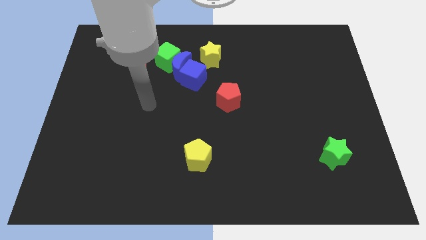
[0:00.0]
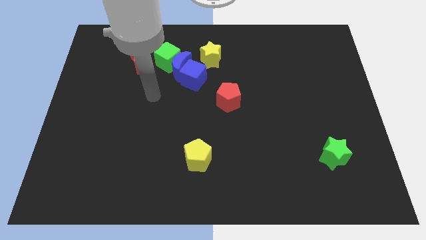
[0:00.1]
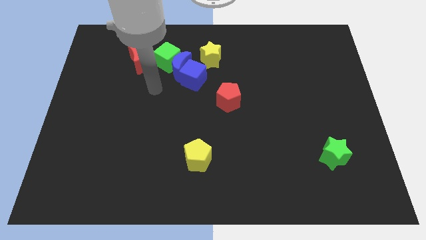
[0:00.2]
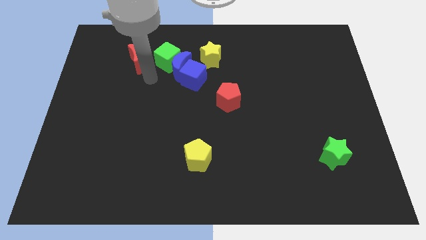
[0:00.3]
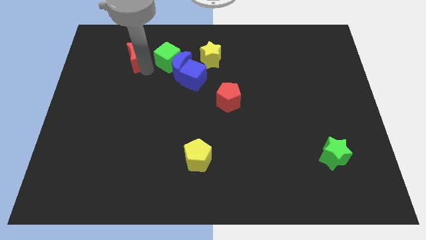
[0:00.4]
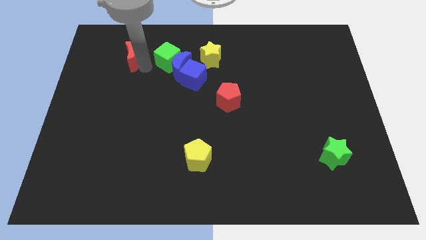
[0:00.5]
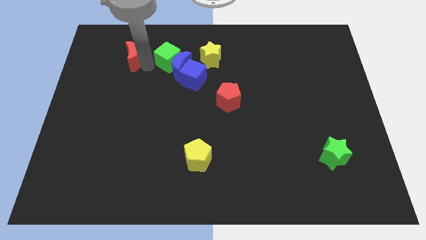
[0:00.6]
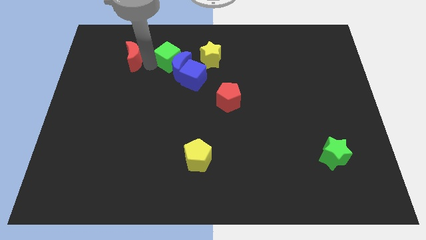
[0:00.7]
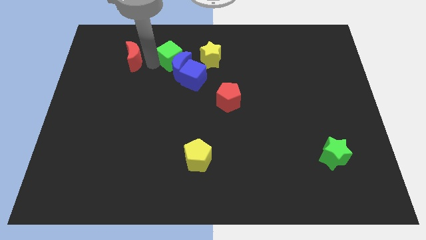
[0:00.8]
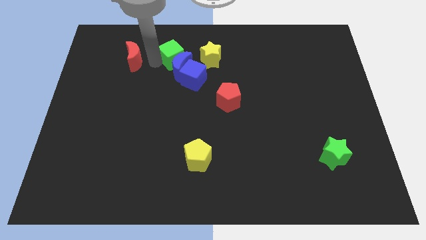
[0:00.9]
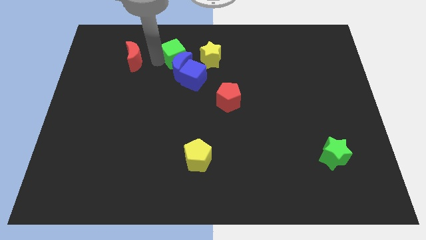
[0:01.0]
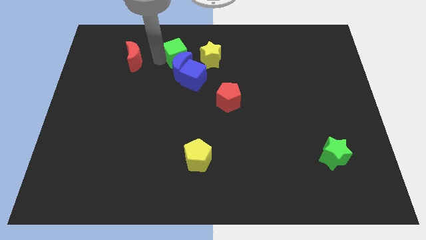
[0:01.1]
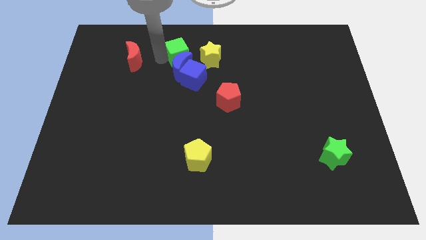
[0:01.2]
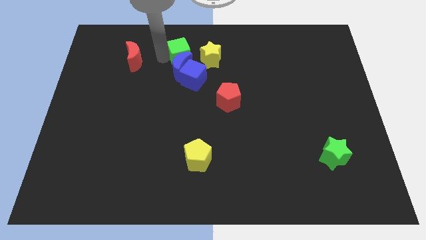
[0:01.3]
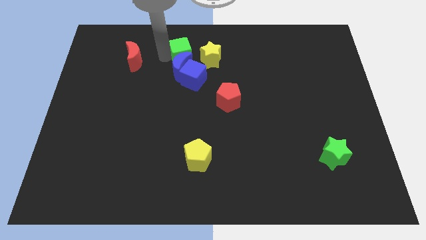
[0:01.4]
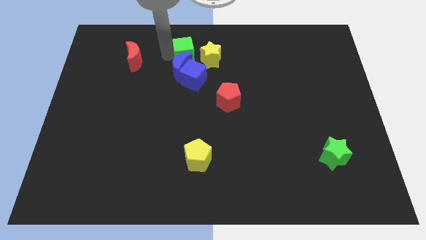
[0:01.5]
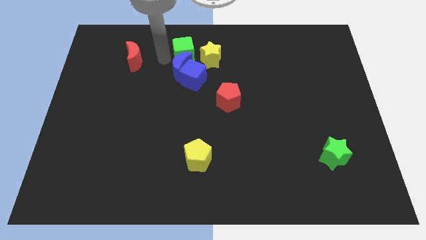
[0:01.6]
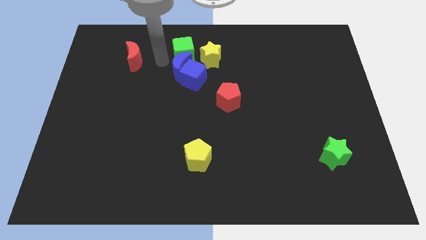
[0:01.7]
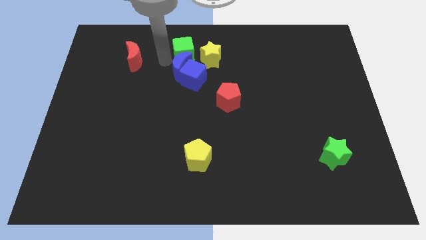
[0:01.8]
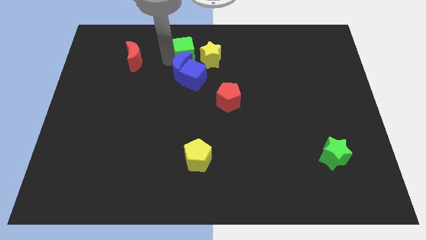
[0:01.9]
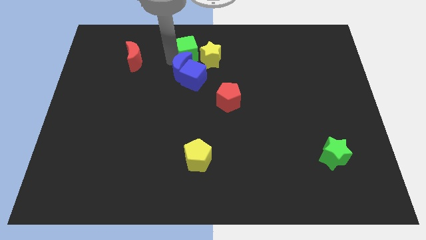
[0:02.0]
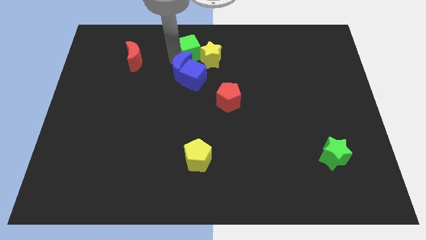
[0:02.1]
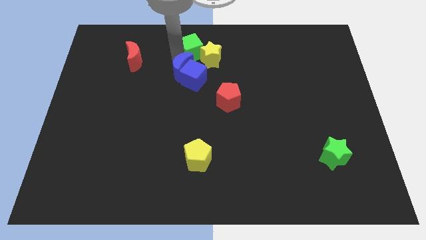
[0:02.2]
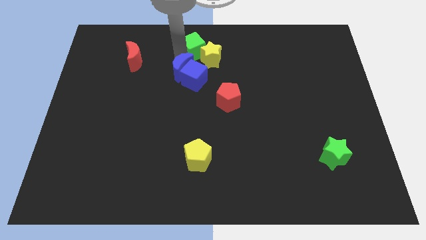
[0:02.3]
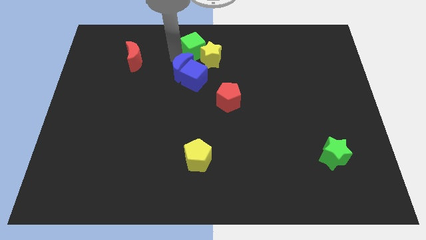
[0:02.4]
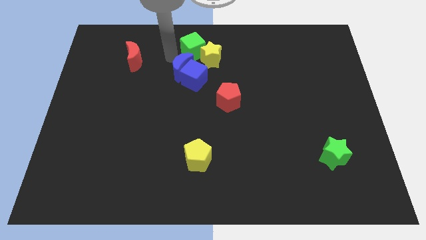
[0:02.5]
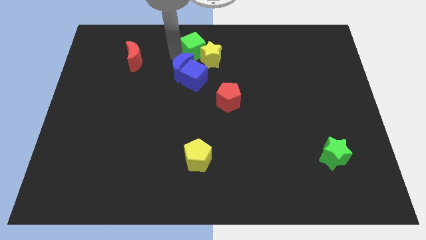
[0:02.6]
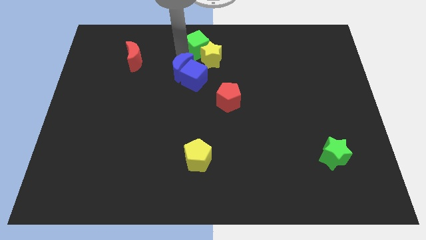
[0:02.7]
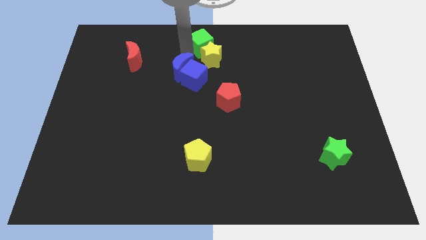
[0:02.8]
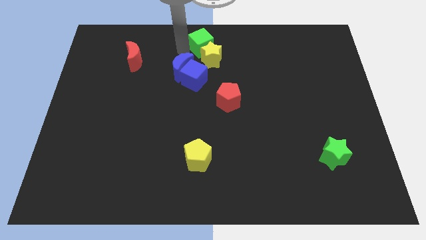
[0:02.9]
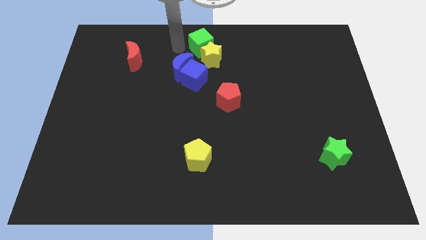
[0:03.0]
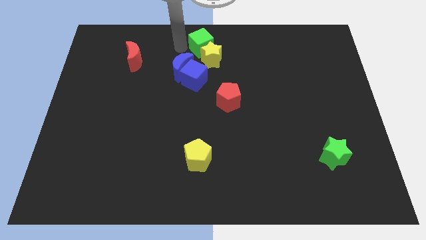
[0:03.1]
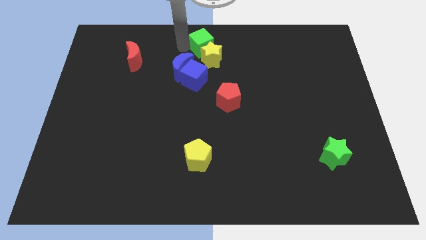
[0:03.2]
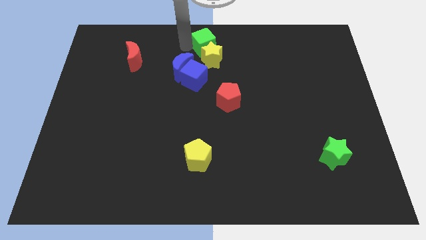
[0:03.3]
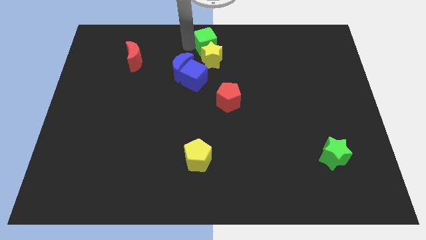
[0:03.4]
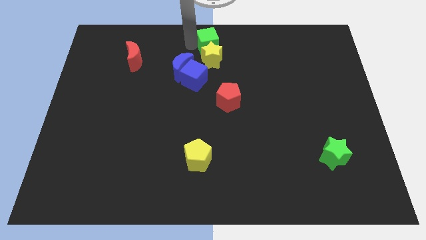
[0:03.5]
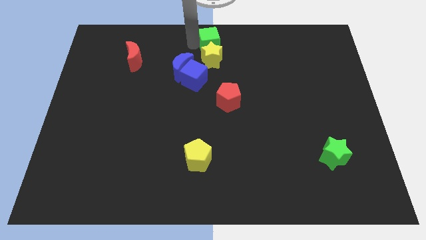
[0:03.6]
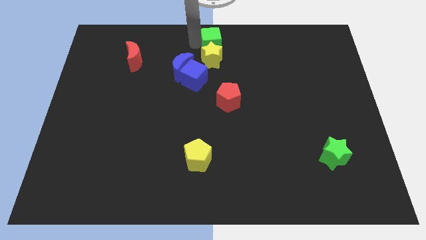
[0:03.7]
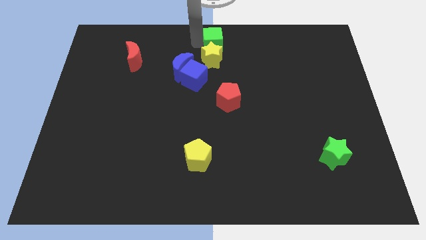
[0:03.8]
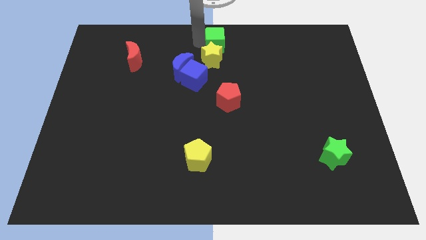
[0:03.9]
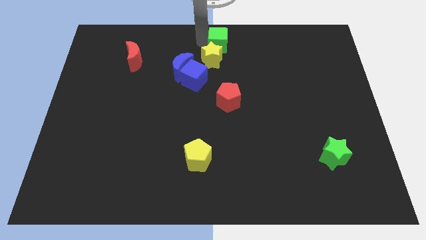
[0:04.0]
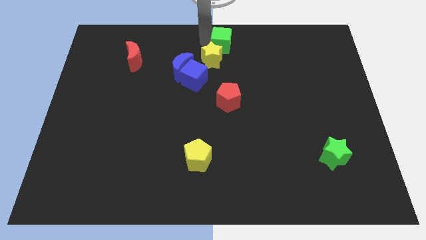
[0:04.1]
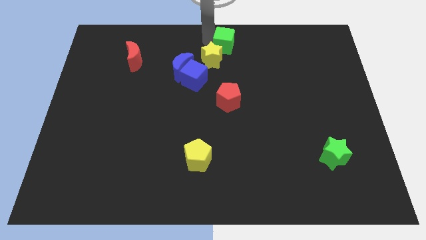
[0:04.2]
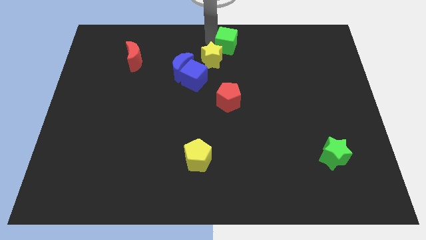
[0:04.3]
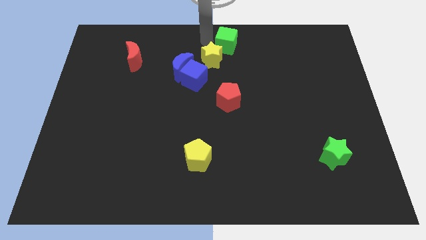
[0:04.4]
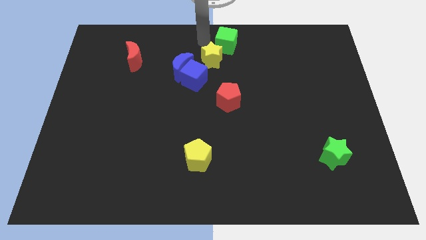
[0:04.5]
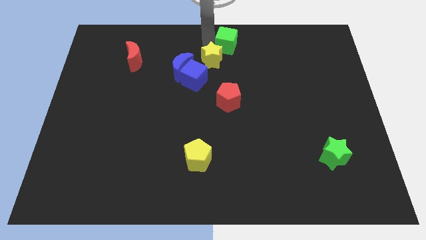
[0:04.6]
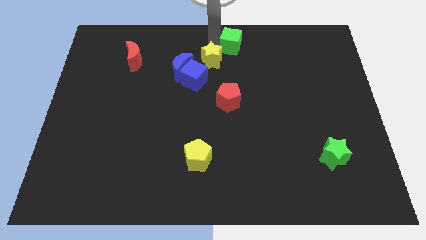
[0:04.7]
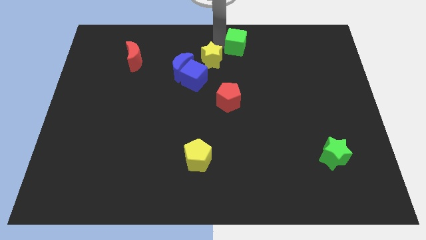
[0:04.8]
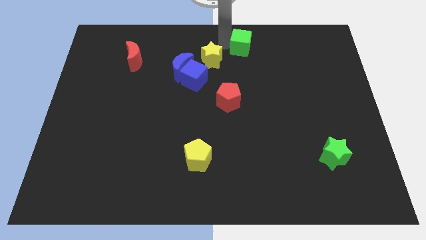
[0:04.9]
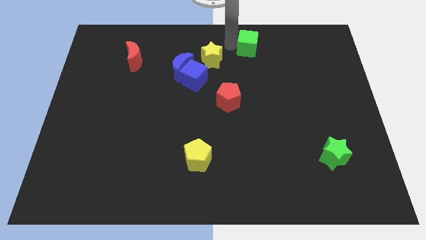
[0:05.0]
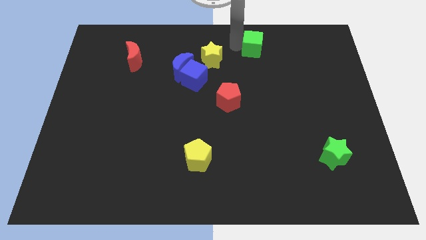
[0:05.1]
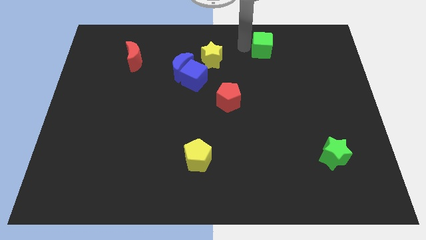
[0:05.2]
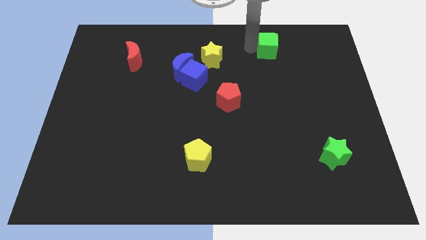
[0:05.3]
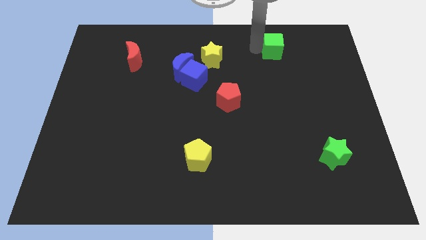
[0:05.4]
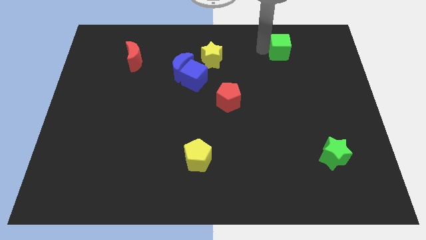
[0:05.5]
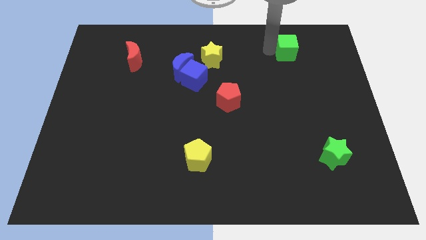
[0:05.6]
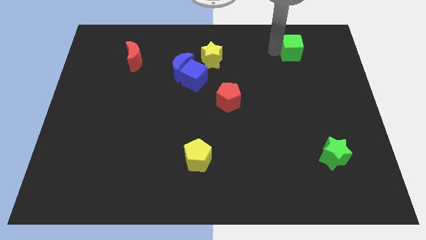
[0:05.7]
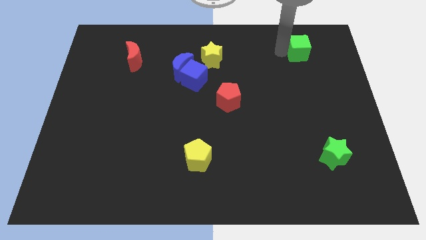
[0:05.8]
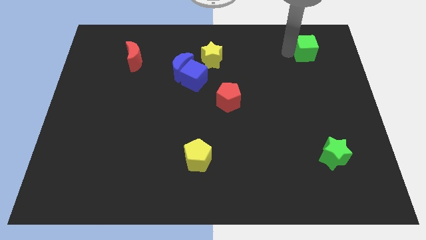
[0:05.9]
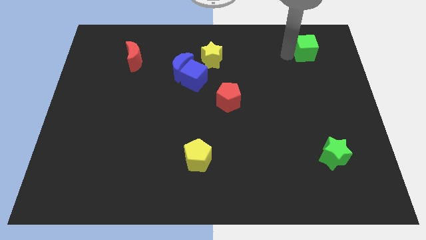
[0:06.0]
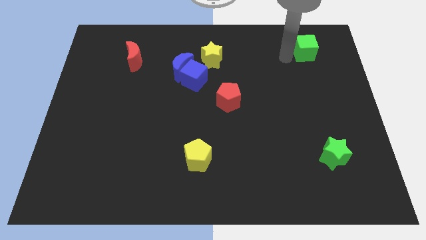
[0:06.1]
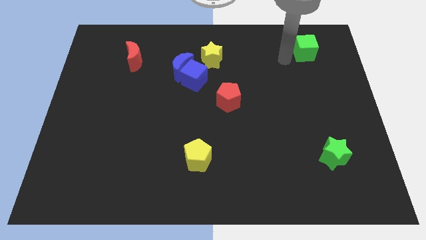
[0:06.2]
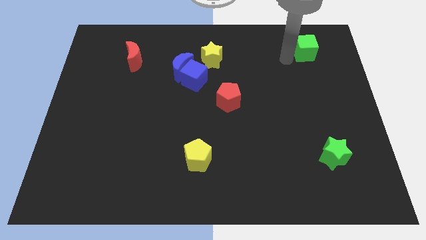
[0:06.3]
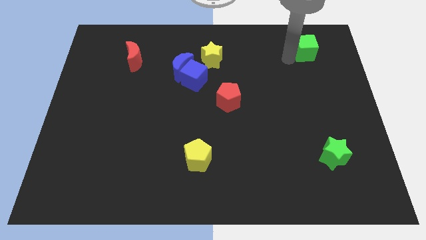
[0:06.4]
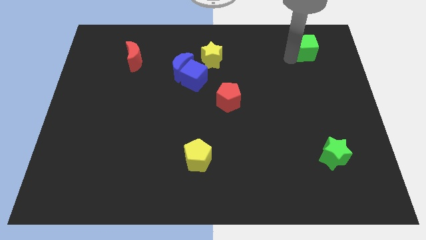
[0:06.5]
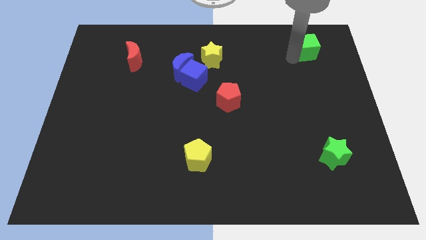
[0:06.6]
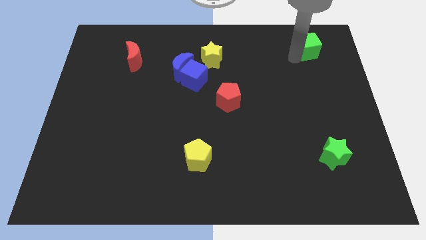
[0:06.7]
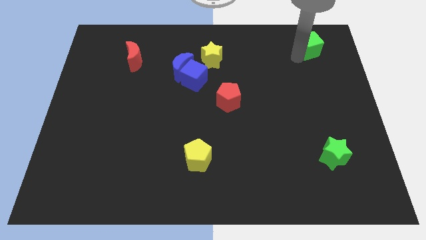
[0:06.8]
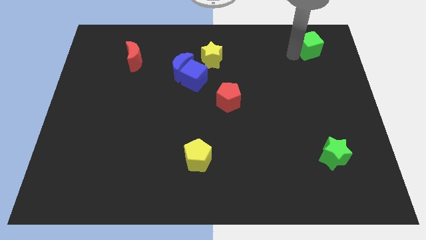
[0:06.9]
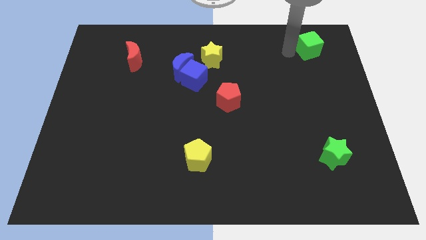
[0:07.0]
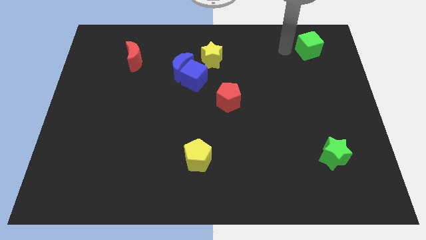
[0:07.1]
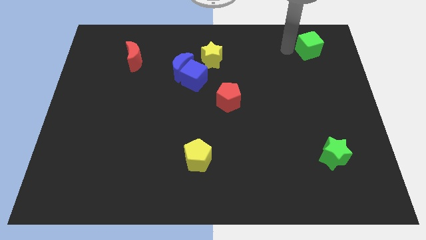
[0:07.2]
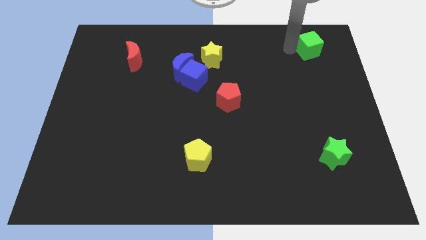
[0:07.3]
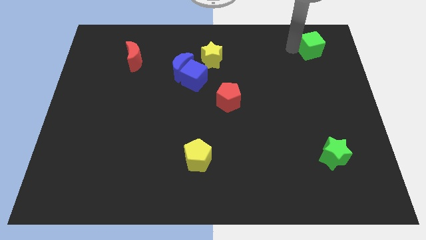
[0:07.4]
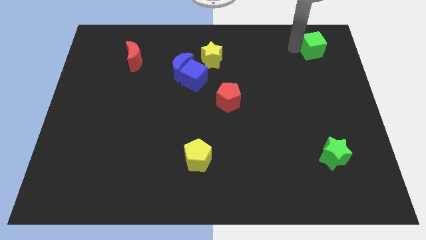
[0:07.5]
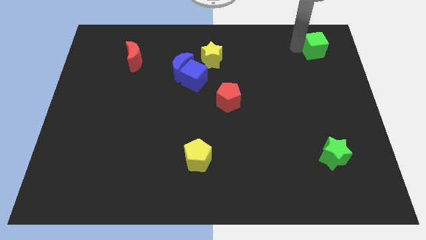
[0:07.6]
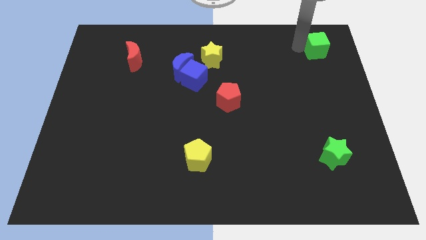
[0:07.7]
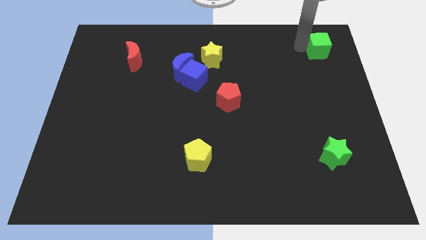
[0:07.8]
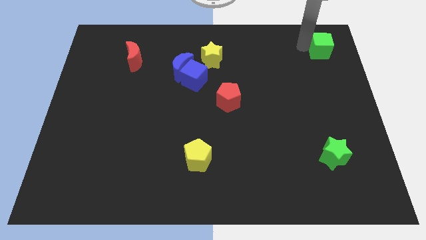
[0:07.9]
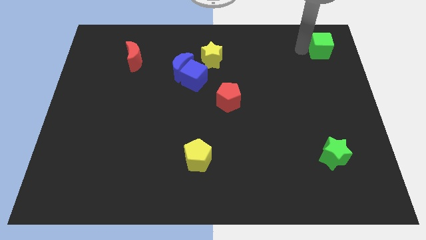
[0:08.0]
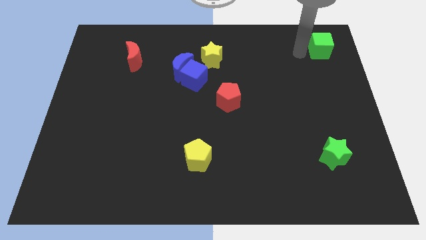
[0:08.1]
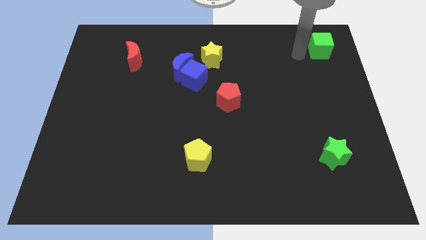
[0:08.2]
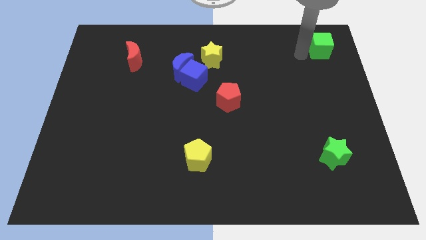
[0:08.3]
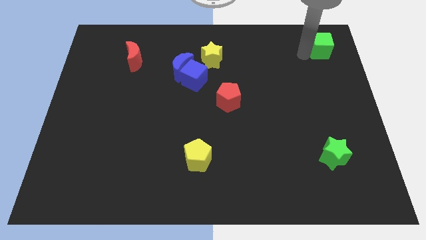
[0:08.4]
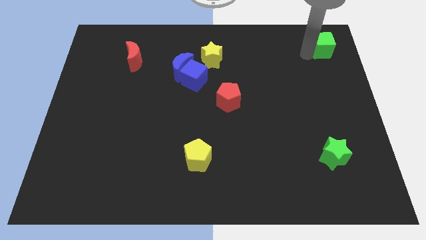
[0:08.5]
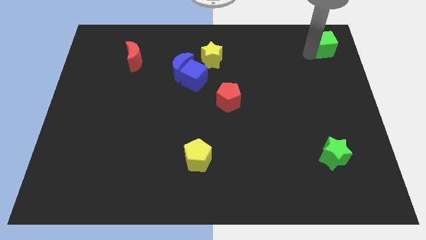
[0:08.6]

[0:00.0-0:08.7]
move the green cube to the upper right corner
